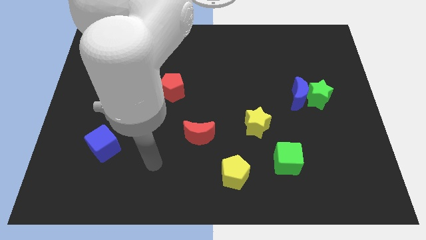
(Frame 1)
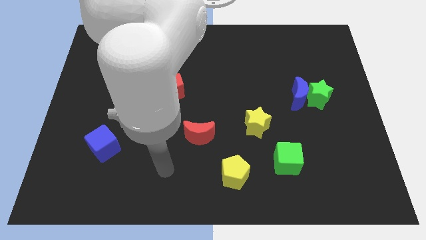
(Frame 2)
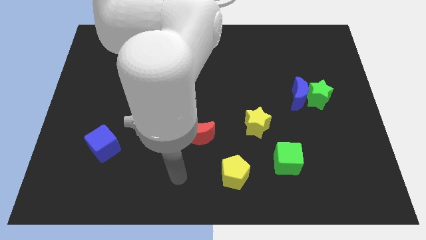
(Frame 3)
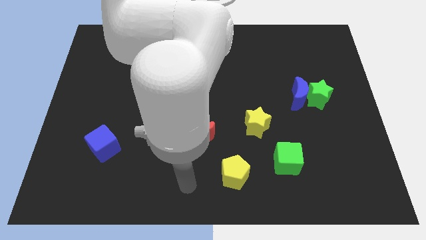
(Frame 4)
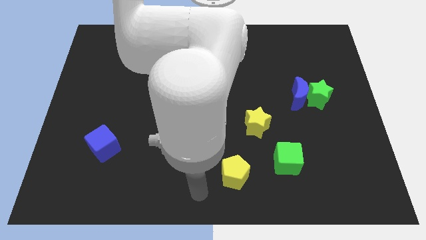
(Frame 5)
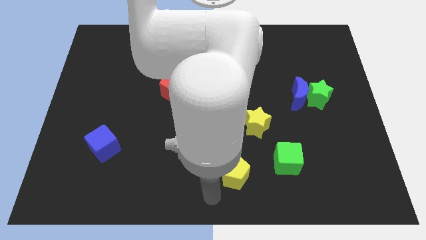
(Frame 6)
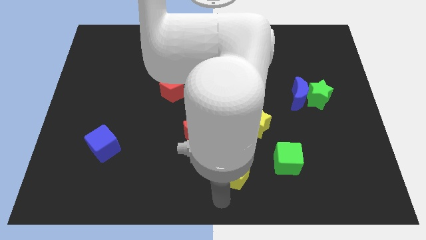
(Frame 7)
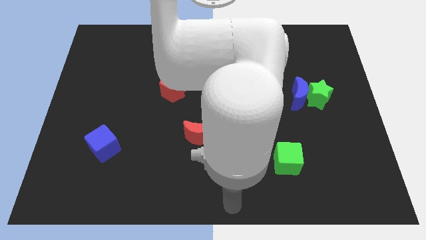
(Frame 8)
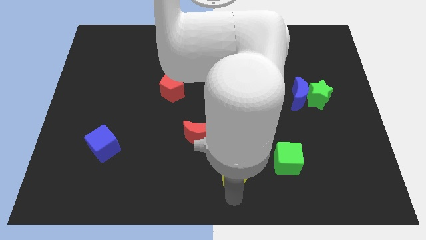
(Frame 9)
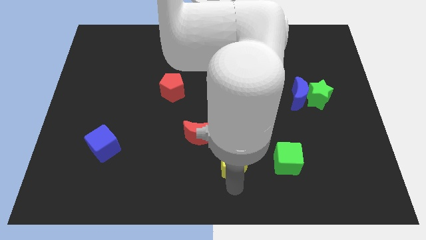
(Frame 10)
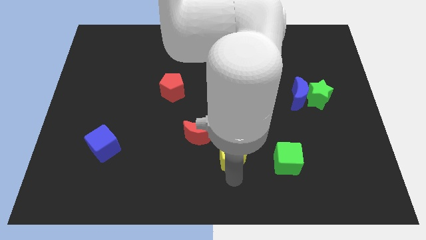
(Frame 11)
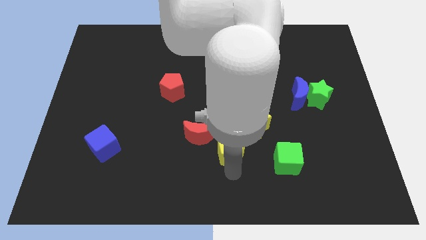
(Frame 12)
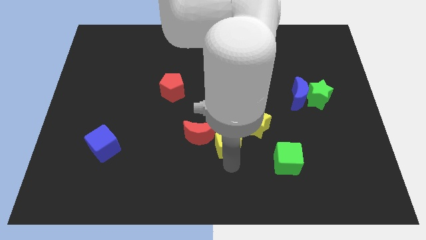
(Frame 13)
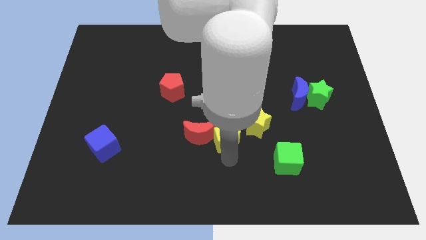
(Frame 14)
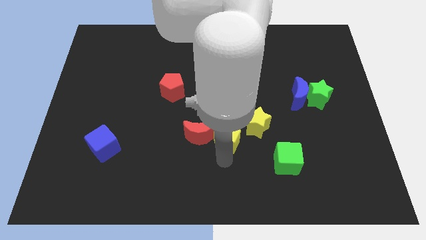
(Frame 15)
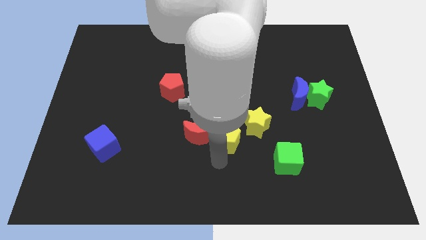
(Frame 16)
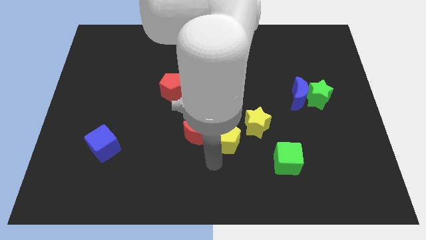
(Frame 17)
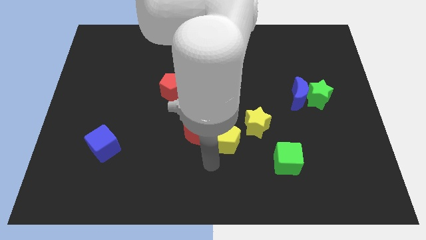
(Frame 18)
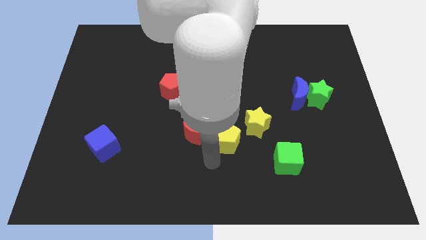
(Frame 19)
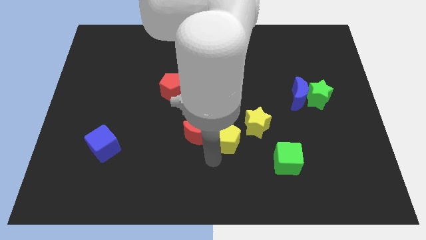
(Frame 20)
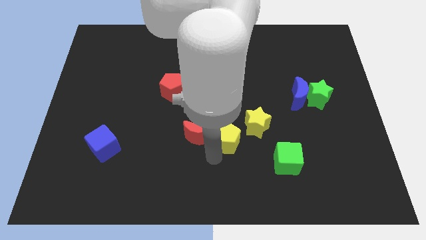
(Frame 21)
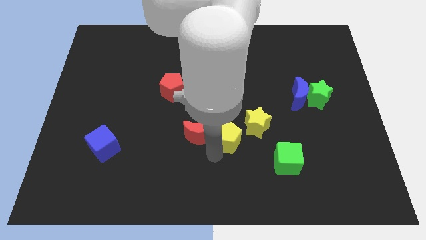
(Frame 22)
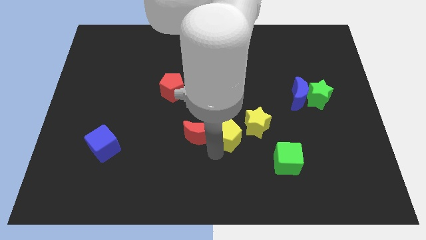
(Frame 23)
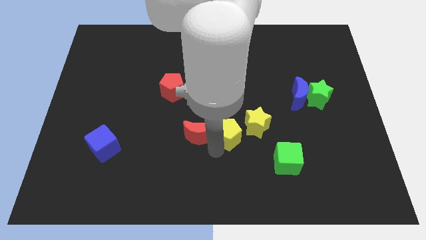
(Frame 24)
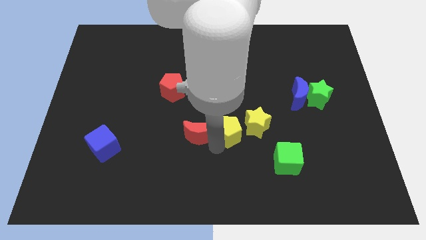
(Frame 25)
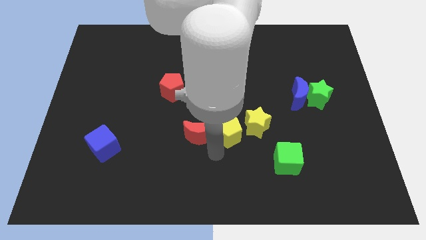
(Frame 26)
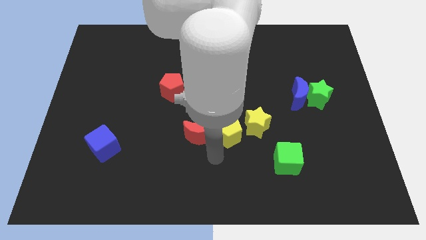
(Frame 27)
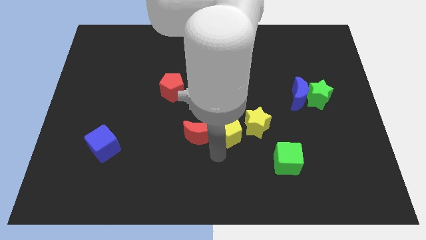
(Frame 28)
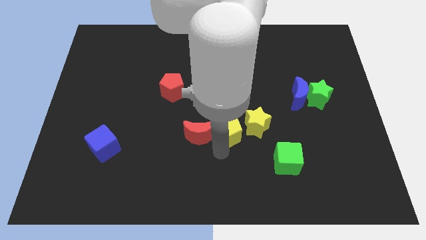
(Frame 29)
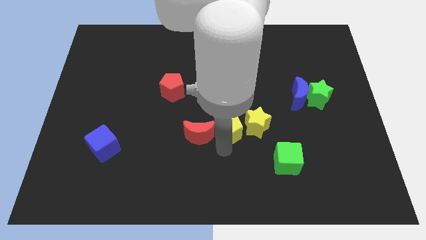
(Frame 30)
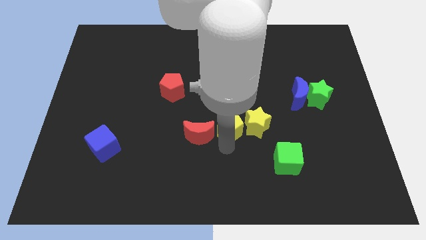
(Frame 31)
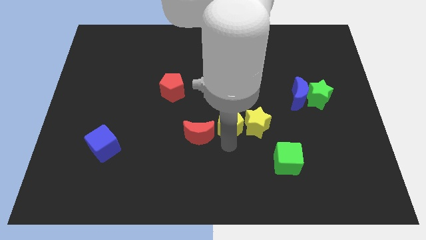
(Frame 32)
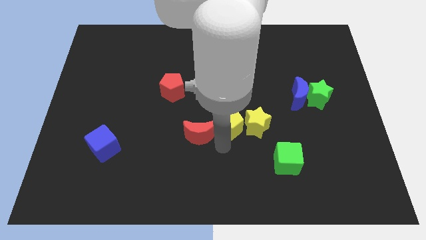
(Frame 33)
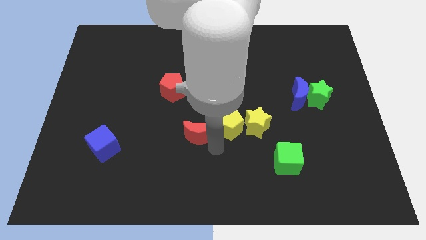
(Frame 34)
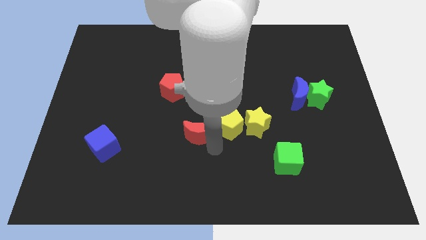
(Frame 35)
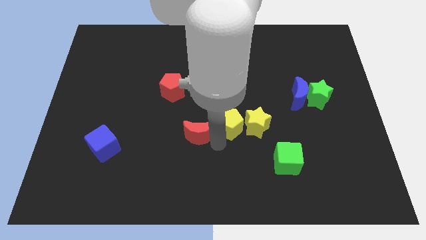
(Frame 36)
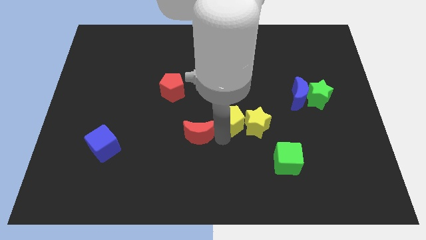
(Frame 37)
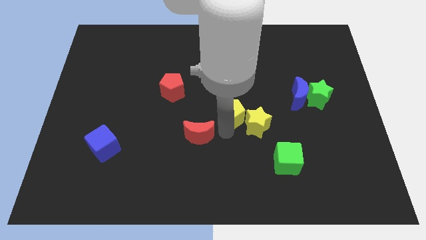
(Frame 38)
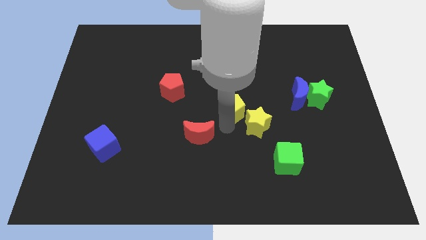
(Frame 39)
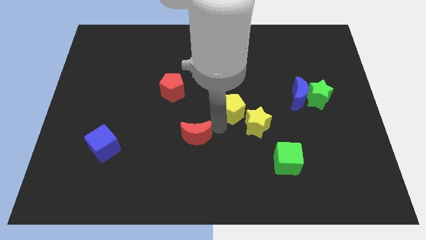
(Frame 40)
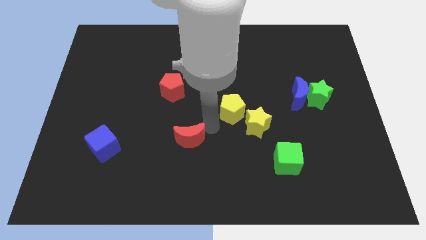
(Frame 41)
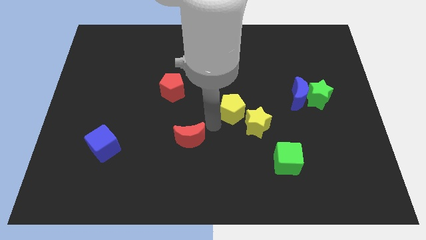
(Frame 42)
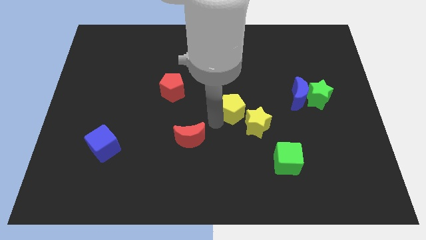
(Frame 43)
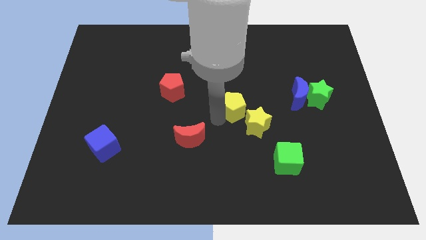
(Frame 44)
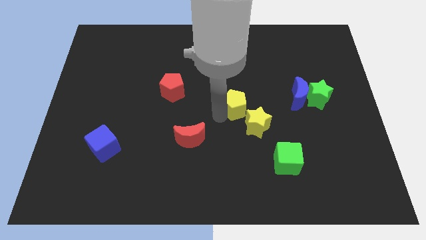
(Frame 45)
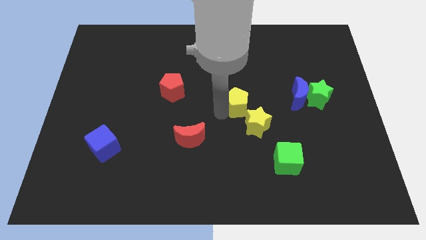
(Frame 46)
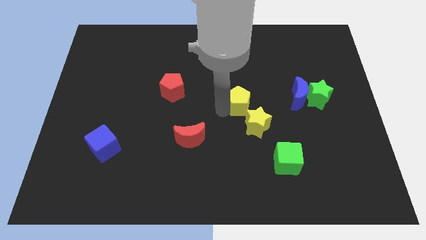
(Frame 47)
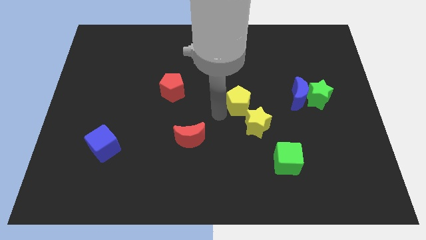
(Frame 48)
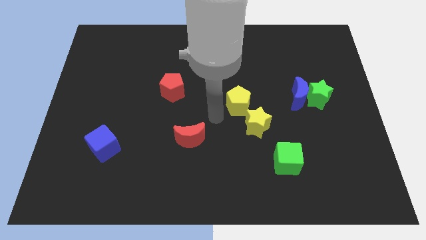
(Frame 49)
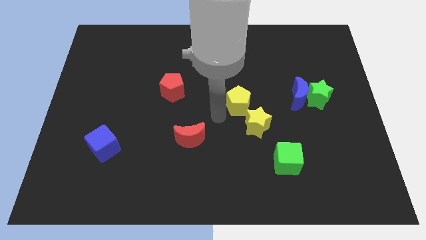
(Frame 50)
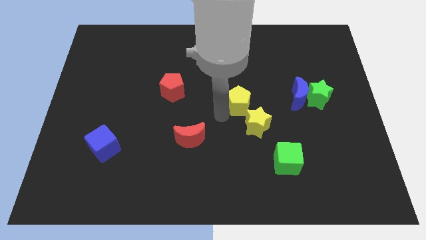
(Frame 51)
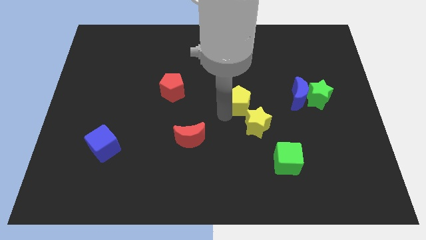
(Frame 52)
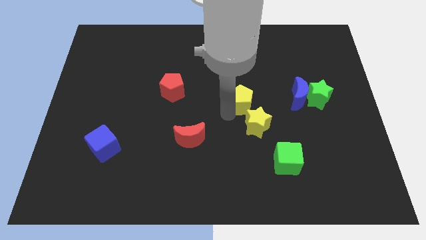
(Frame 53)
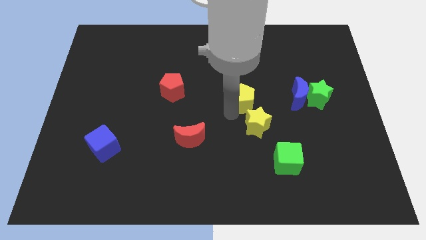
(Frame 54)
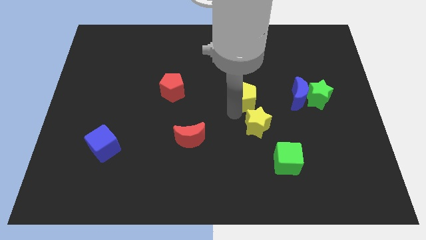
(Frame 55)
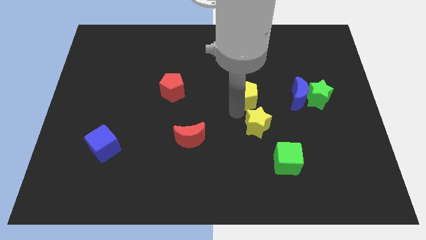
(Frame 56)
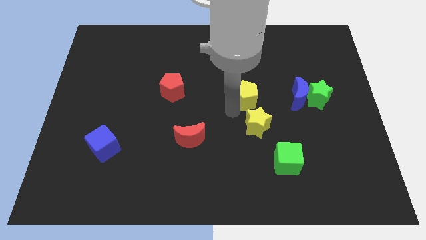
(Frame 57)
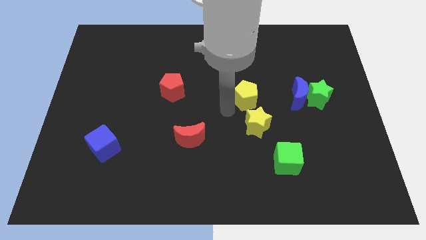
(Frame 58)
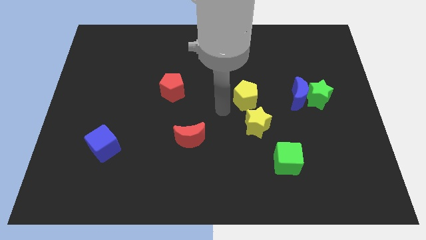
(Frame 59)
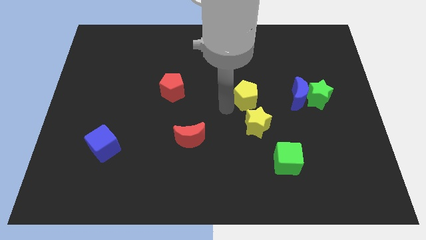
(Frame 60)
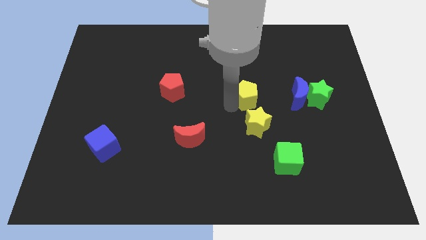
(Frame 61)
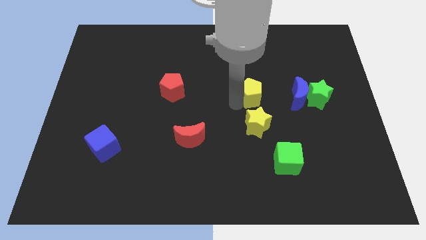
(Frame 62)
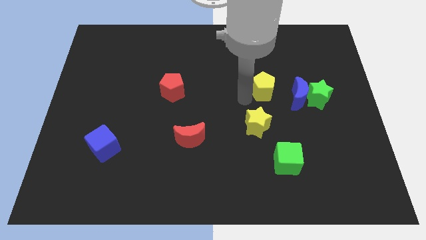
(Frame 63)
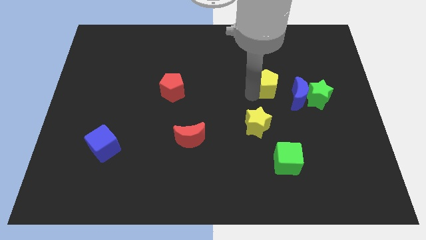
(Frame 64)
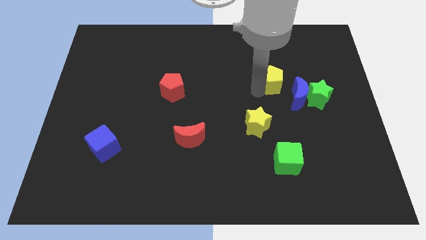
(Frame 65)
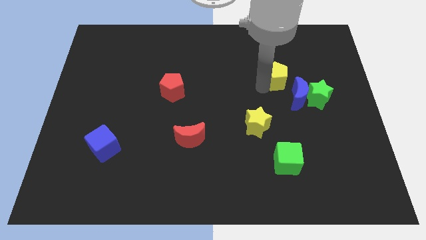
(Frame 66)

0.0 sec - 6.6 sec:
move the yellow pentagon to the top left side of the green star
